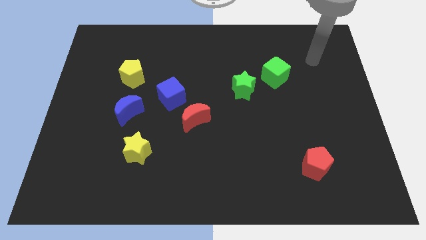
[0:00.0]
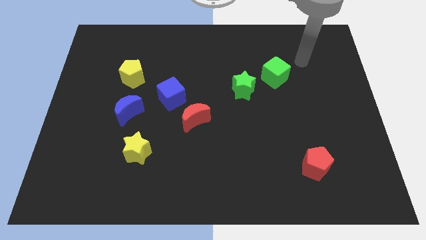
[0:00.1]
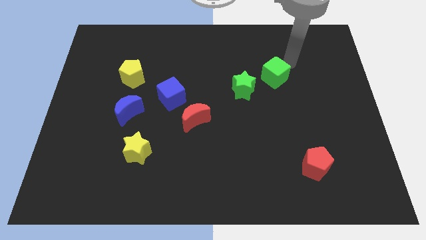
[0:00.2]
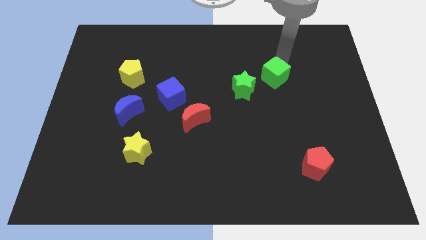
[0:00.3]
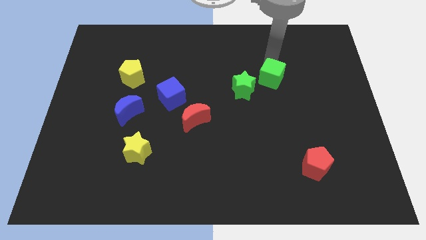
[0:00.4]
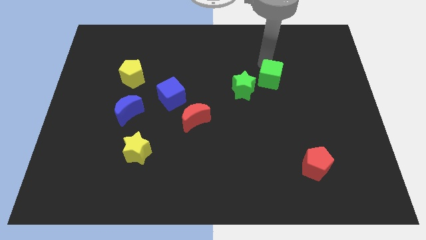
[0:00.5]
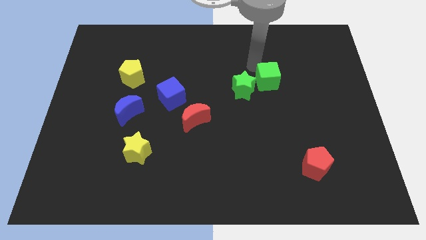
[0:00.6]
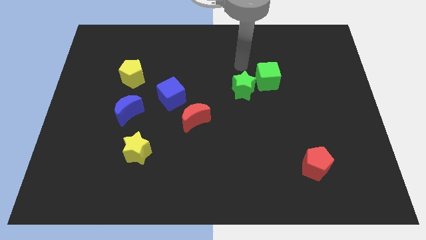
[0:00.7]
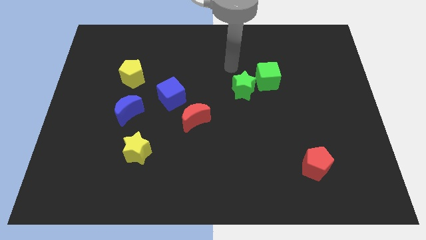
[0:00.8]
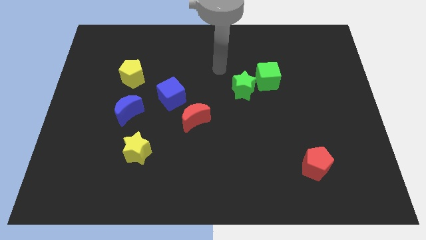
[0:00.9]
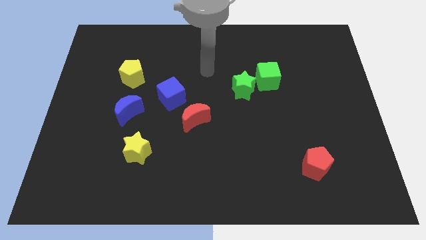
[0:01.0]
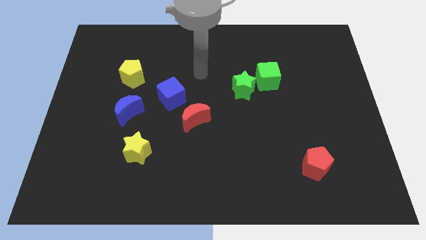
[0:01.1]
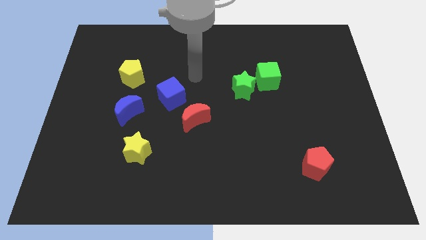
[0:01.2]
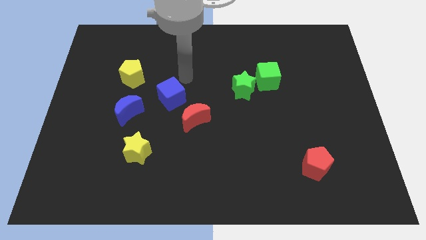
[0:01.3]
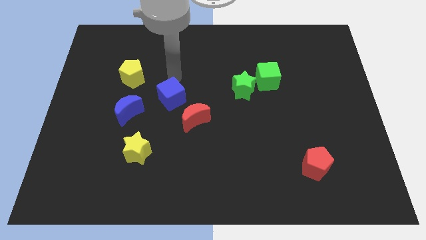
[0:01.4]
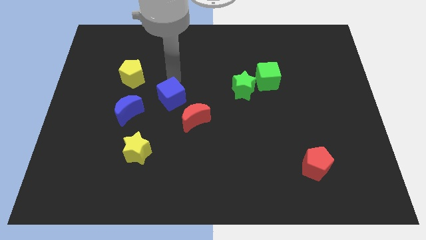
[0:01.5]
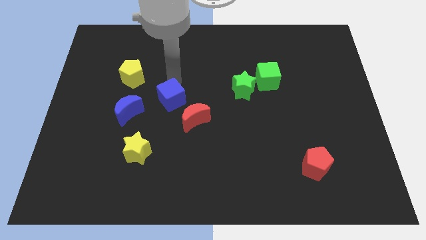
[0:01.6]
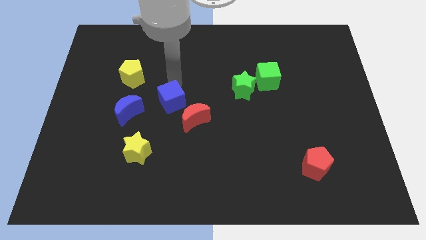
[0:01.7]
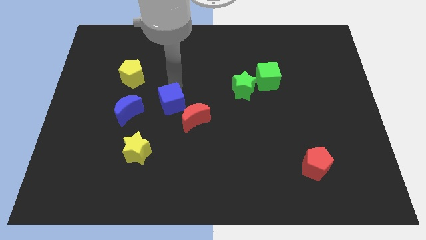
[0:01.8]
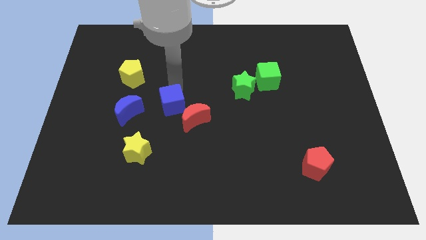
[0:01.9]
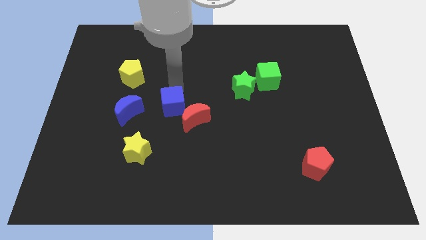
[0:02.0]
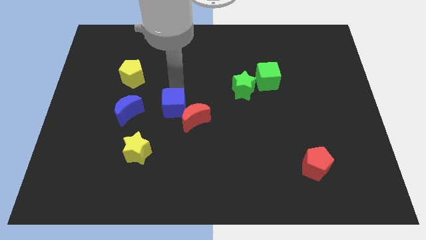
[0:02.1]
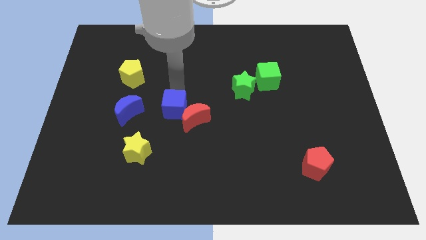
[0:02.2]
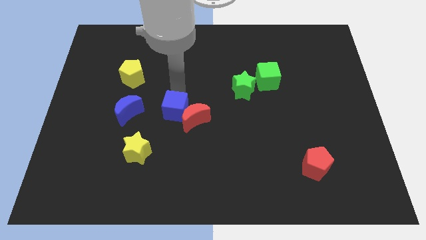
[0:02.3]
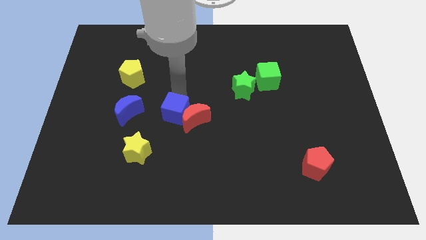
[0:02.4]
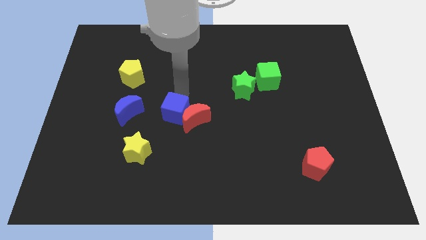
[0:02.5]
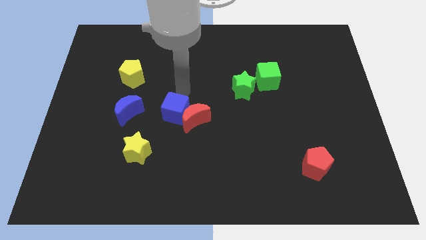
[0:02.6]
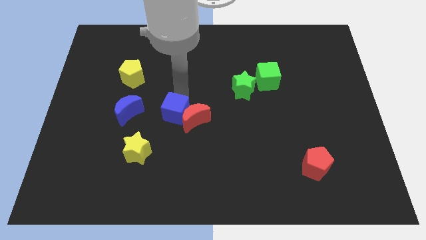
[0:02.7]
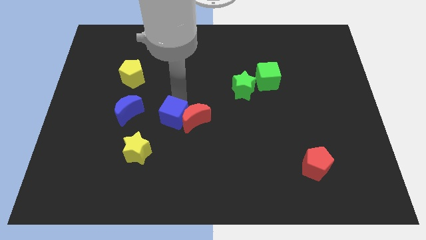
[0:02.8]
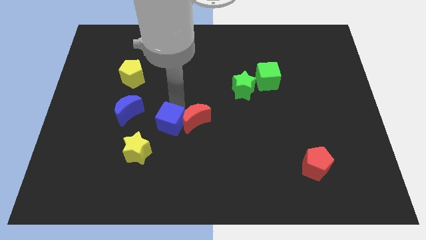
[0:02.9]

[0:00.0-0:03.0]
slightly slide the blue cube downwards

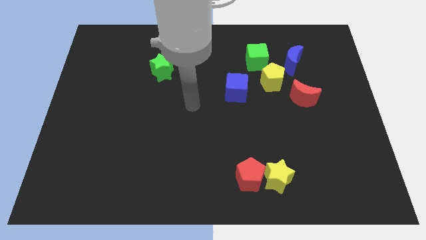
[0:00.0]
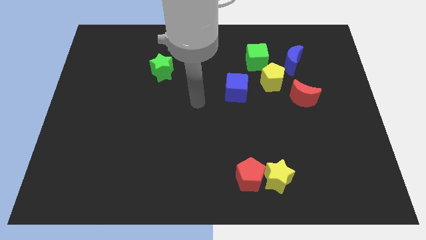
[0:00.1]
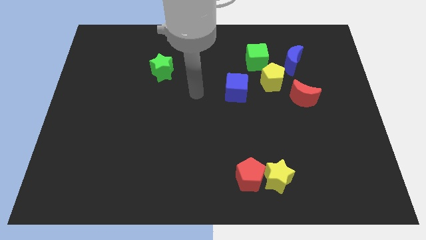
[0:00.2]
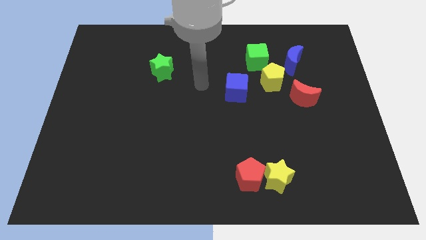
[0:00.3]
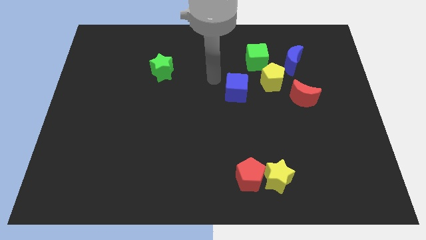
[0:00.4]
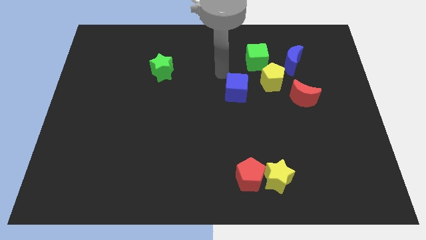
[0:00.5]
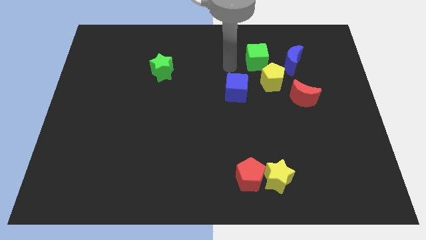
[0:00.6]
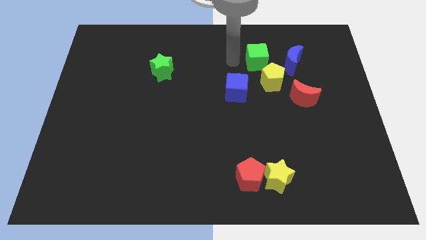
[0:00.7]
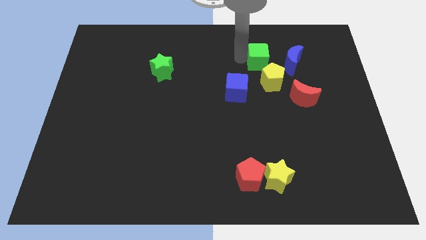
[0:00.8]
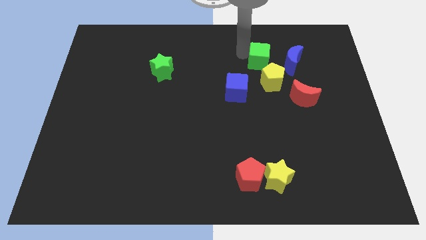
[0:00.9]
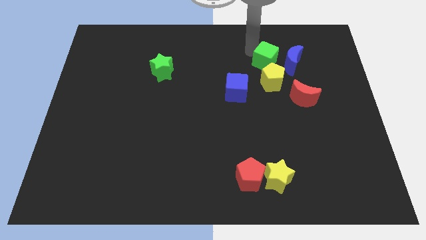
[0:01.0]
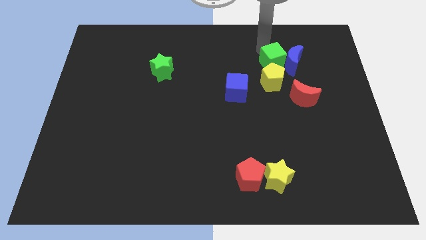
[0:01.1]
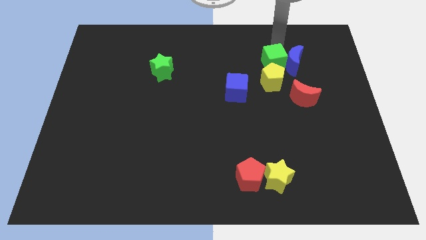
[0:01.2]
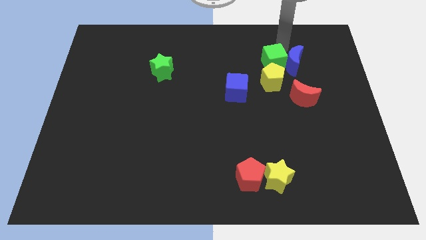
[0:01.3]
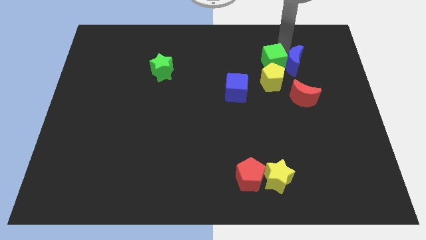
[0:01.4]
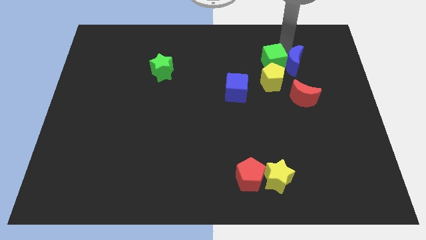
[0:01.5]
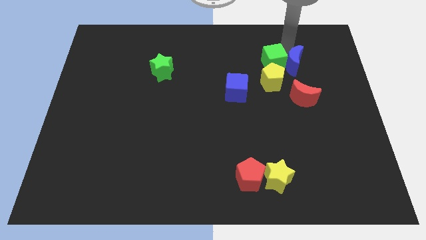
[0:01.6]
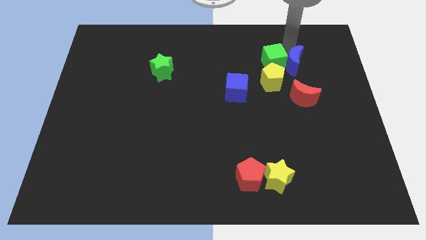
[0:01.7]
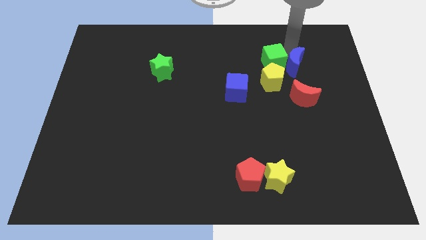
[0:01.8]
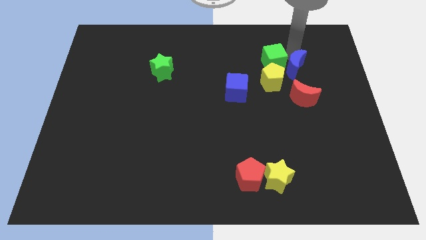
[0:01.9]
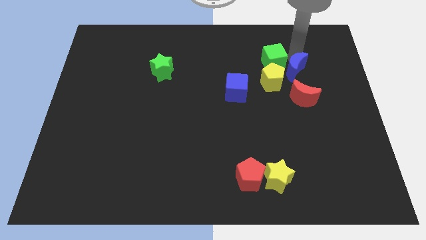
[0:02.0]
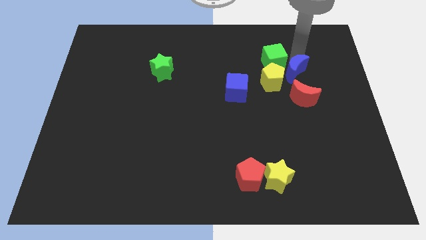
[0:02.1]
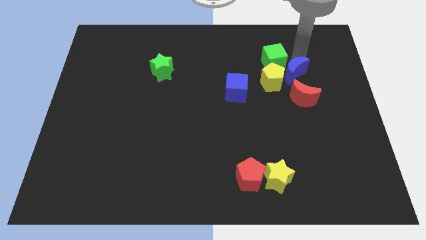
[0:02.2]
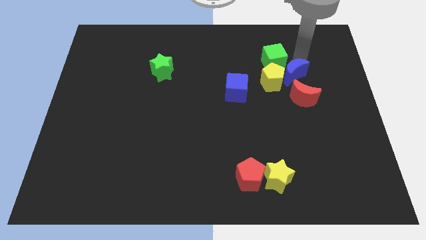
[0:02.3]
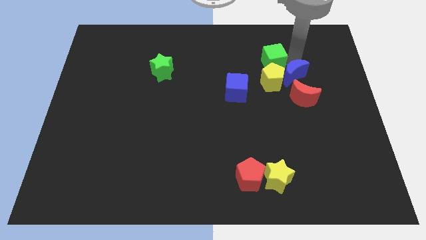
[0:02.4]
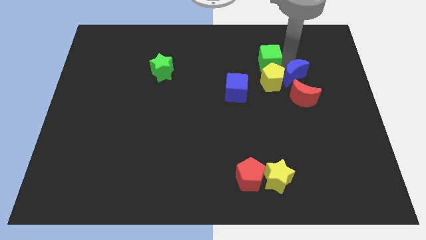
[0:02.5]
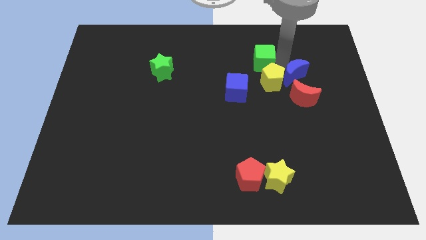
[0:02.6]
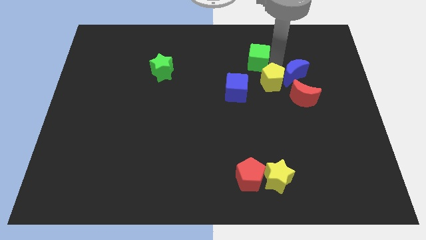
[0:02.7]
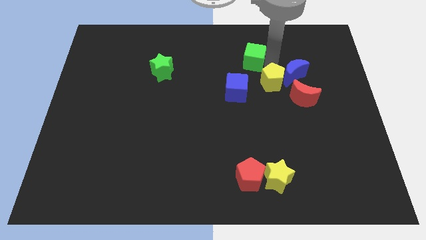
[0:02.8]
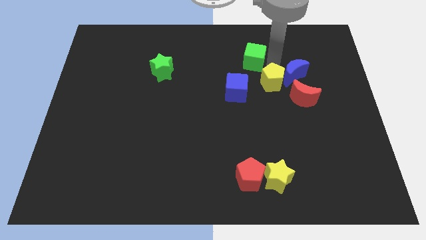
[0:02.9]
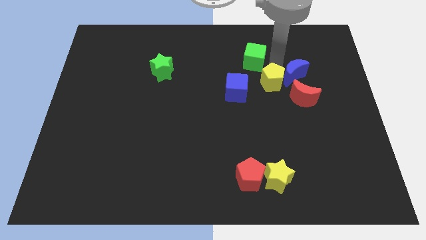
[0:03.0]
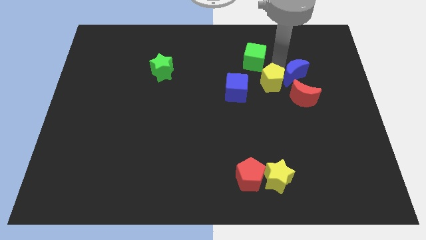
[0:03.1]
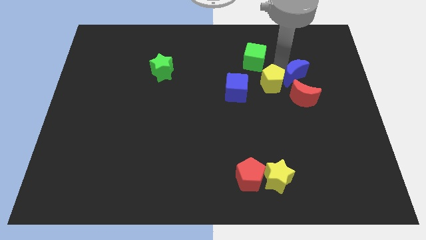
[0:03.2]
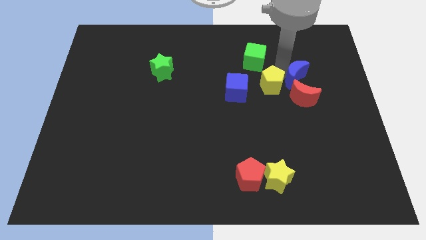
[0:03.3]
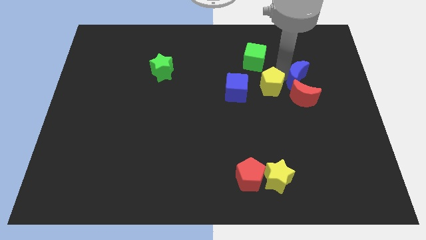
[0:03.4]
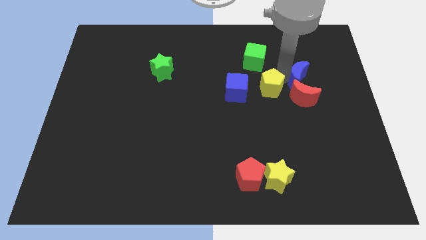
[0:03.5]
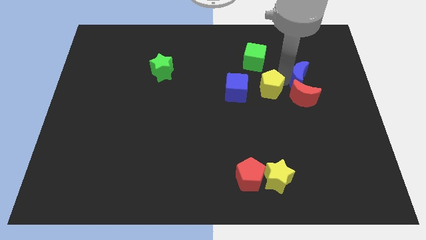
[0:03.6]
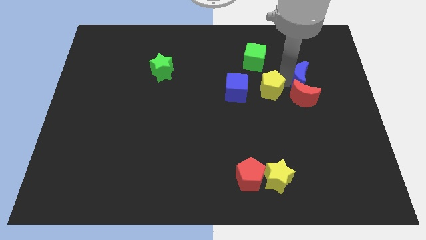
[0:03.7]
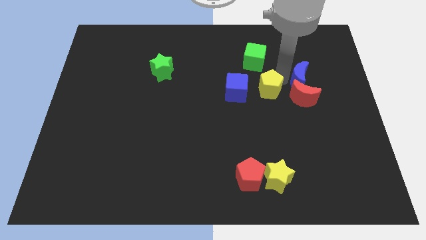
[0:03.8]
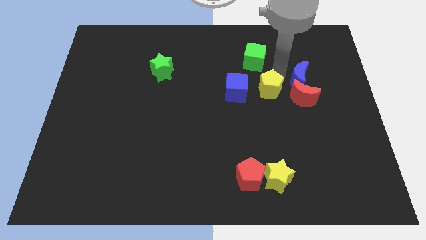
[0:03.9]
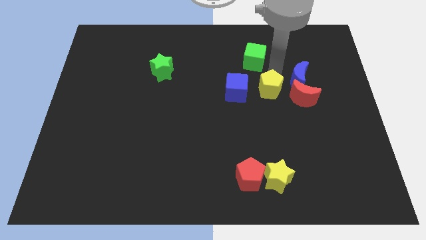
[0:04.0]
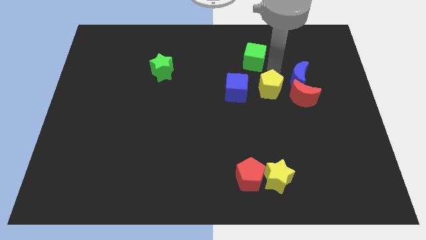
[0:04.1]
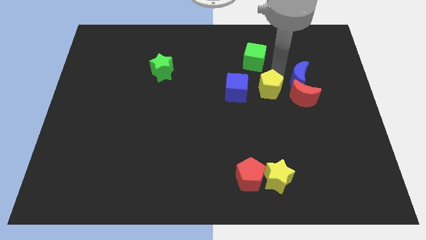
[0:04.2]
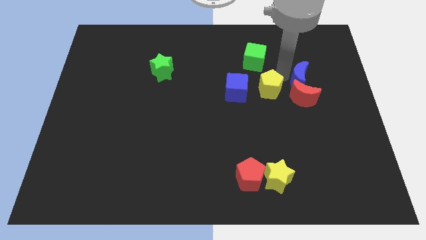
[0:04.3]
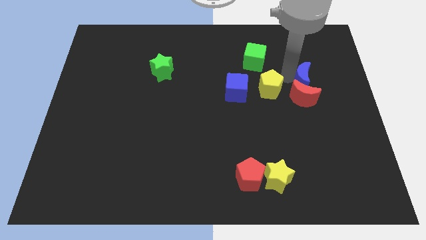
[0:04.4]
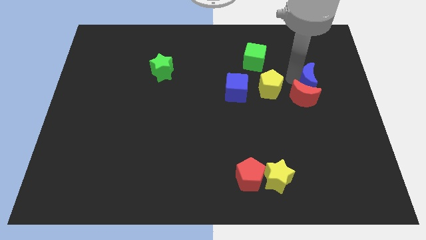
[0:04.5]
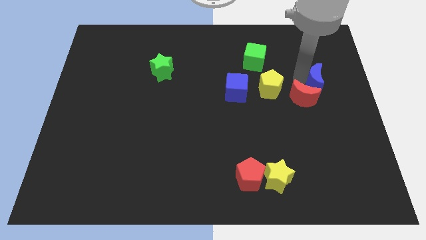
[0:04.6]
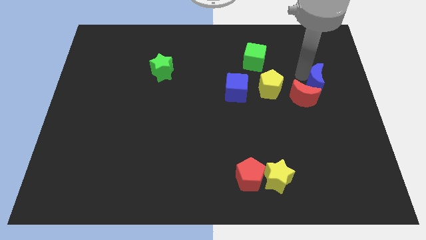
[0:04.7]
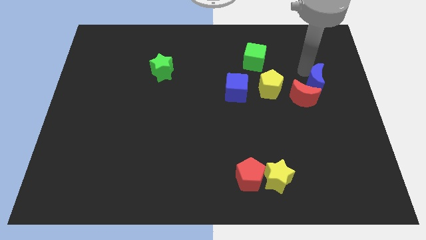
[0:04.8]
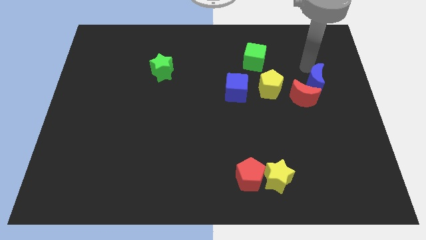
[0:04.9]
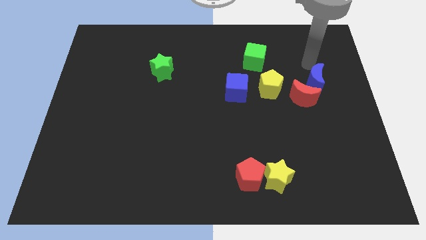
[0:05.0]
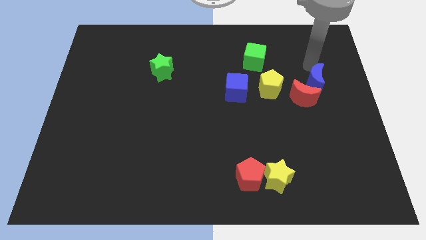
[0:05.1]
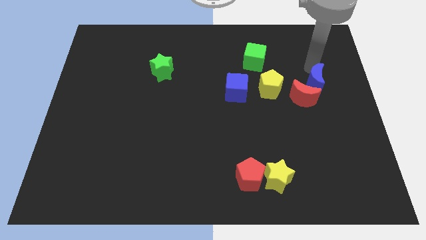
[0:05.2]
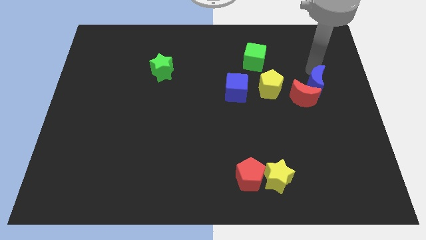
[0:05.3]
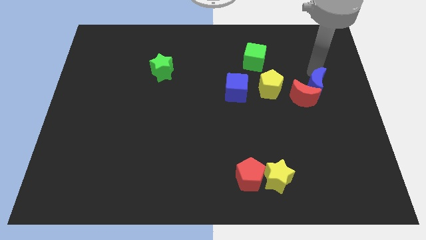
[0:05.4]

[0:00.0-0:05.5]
move the blue moon downwards slightly
